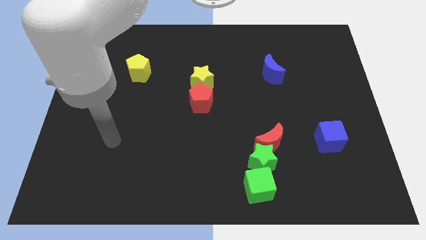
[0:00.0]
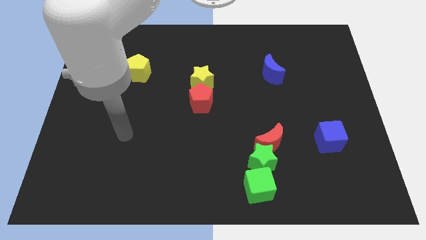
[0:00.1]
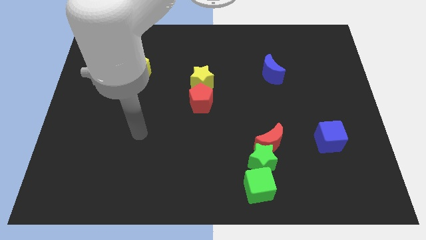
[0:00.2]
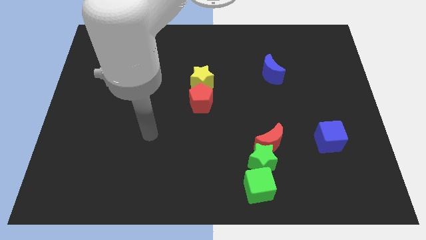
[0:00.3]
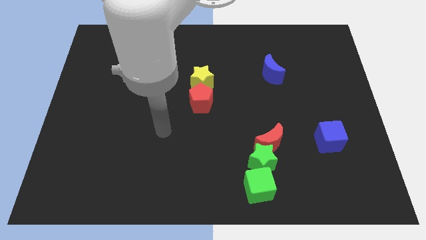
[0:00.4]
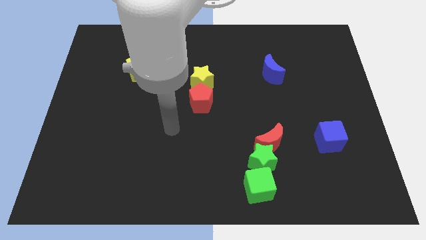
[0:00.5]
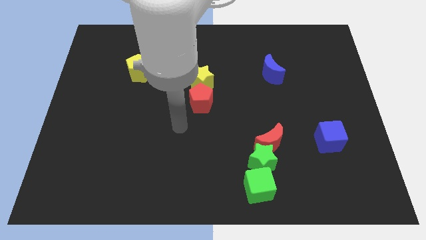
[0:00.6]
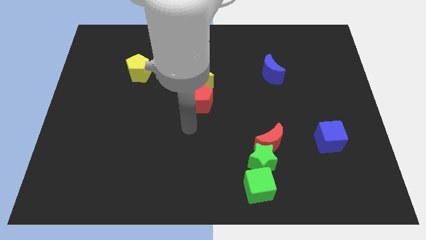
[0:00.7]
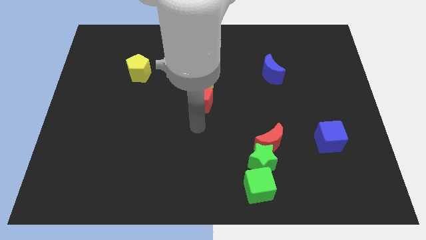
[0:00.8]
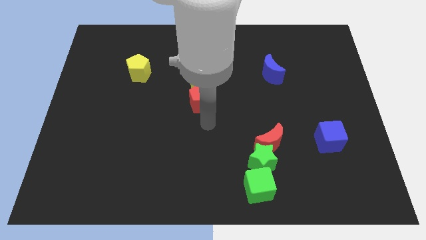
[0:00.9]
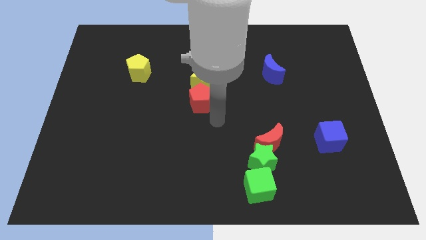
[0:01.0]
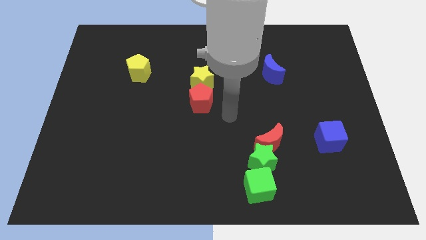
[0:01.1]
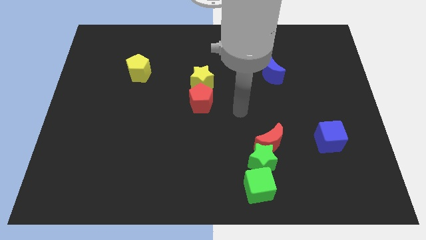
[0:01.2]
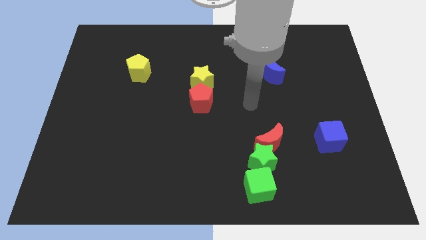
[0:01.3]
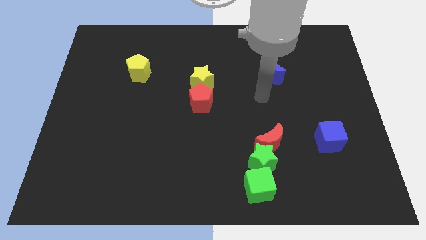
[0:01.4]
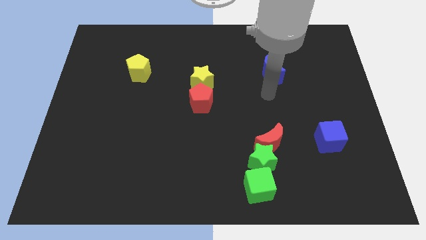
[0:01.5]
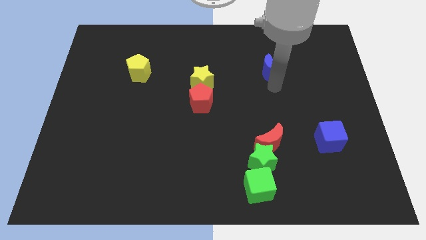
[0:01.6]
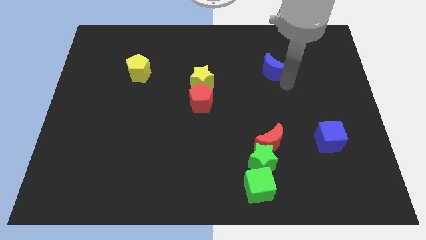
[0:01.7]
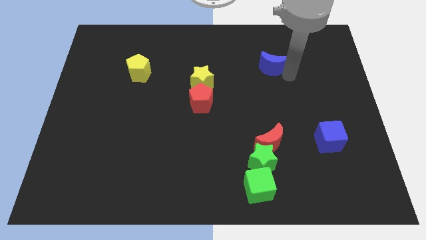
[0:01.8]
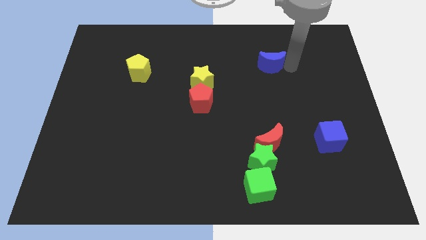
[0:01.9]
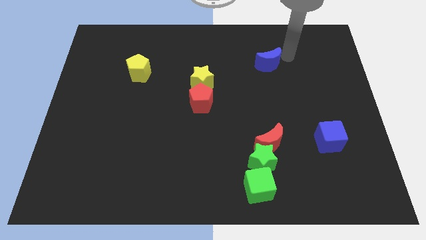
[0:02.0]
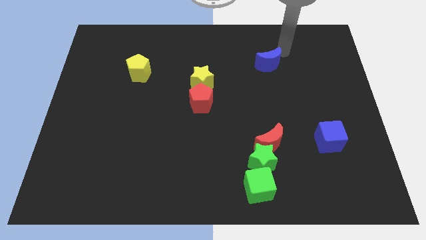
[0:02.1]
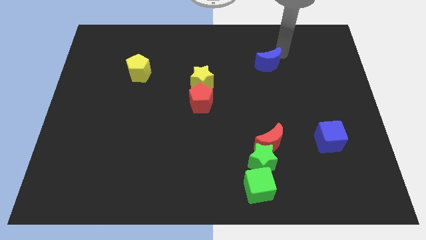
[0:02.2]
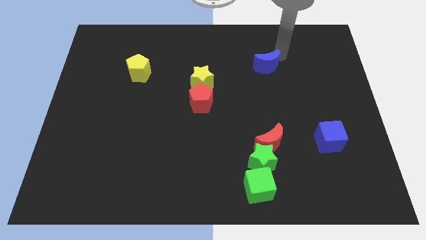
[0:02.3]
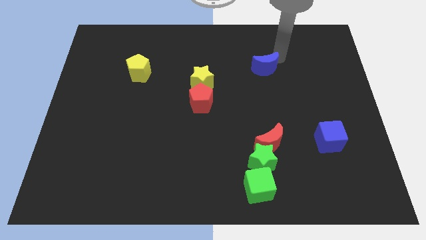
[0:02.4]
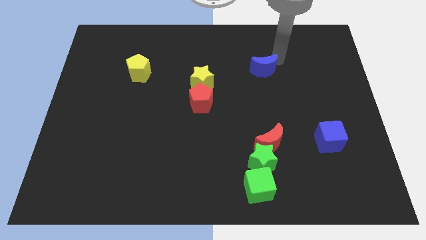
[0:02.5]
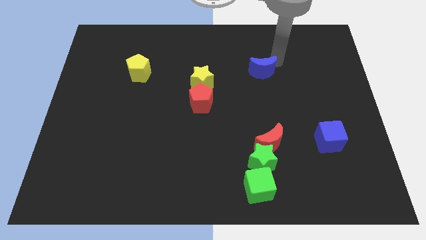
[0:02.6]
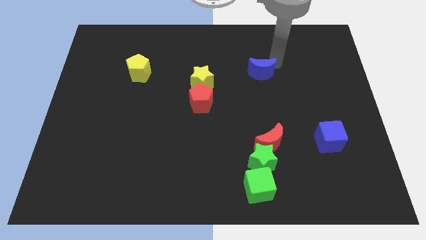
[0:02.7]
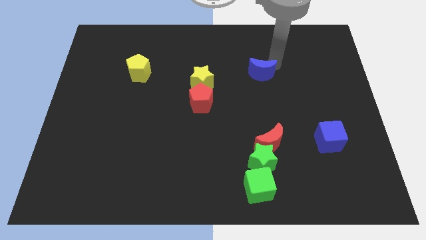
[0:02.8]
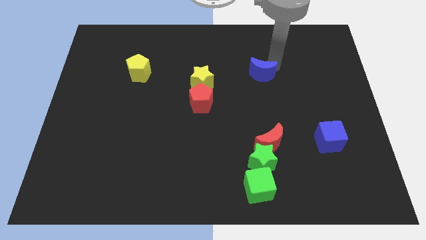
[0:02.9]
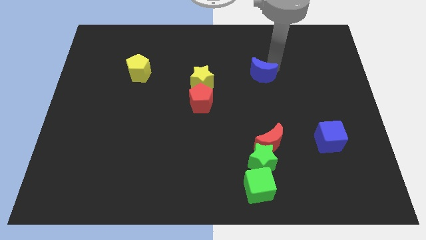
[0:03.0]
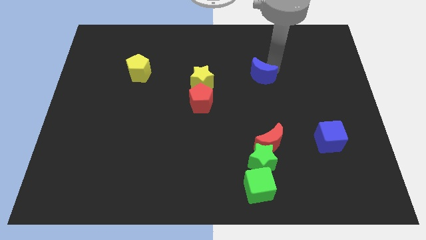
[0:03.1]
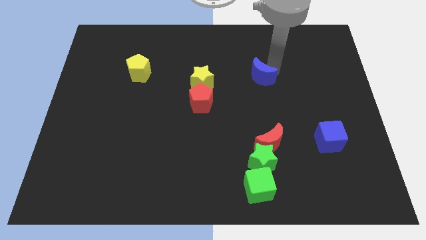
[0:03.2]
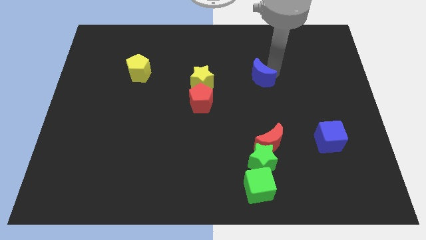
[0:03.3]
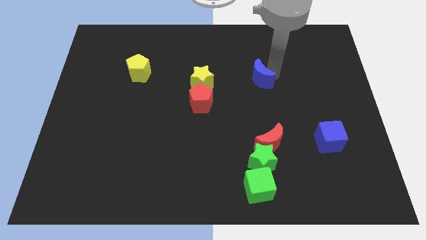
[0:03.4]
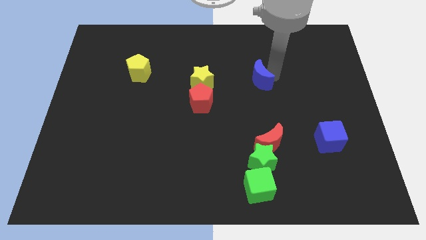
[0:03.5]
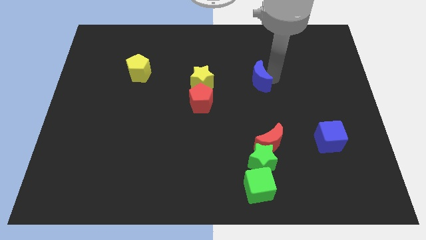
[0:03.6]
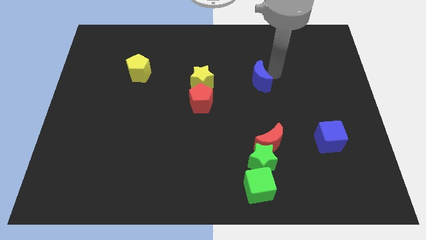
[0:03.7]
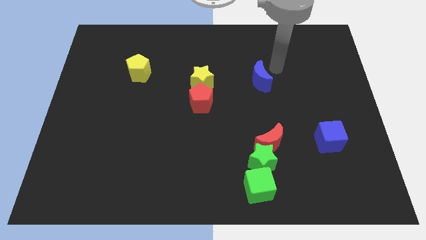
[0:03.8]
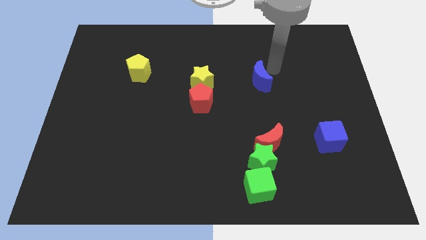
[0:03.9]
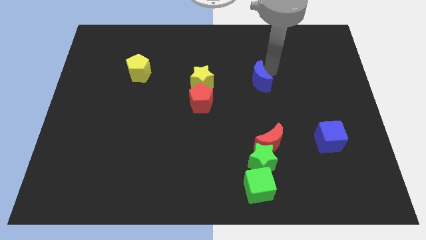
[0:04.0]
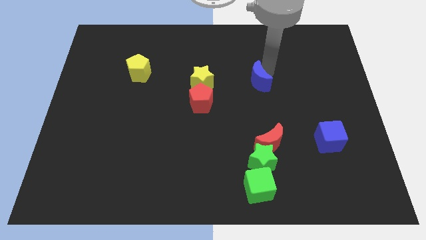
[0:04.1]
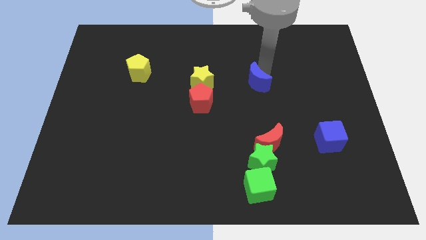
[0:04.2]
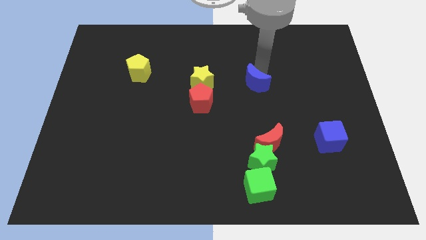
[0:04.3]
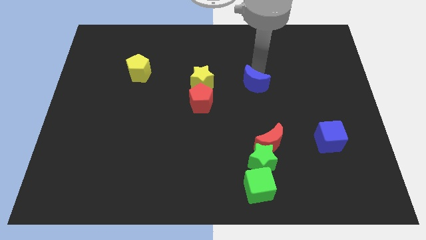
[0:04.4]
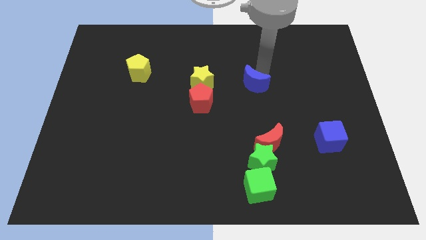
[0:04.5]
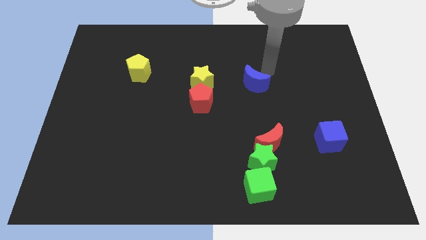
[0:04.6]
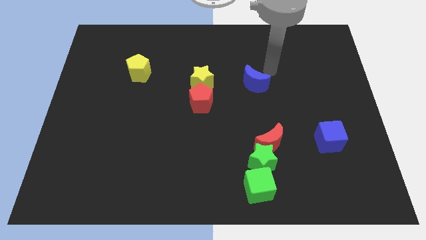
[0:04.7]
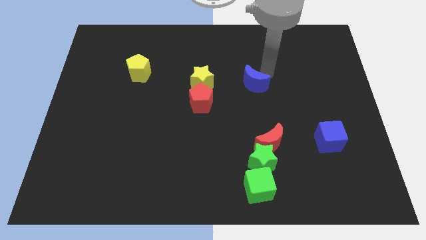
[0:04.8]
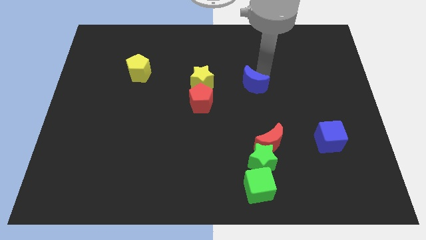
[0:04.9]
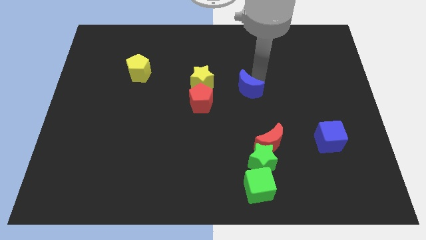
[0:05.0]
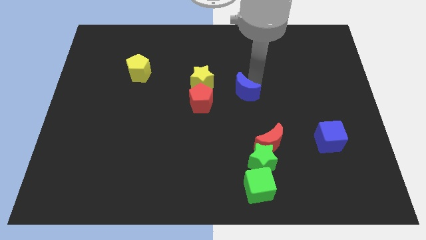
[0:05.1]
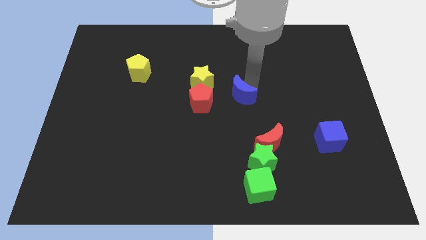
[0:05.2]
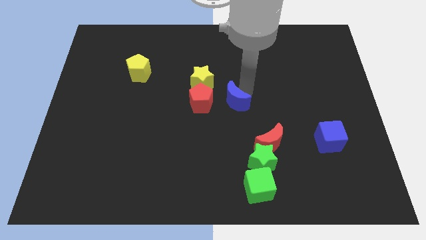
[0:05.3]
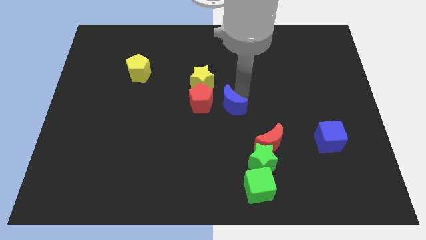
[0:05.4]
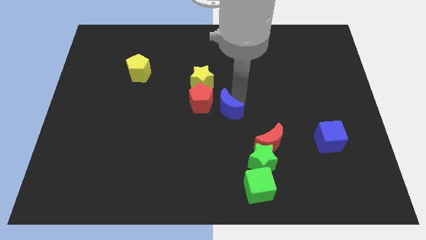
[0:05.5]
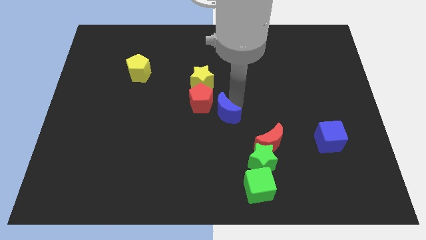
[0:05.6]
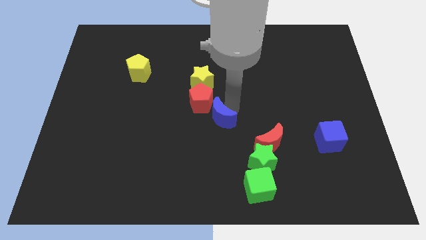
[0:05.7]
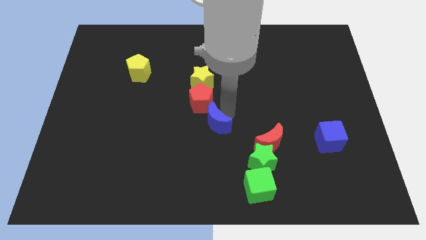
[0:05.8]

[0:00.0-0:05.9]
move the blue moon diagonally down and to the left

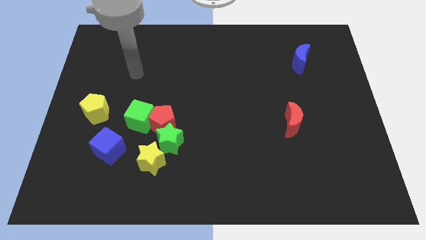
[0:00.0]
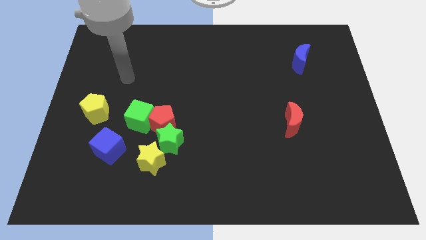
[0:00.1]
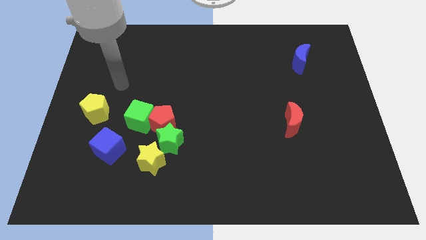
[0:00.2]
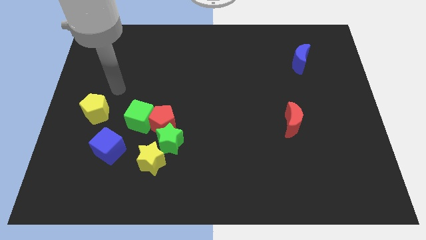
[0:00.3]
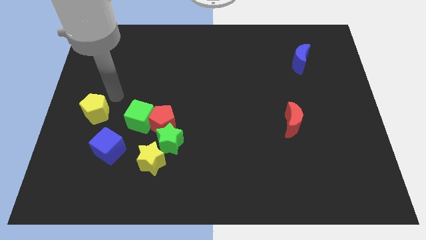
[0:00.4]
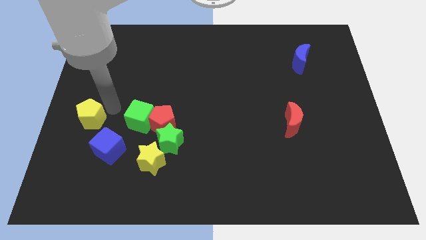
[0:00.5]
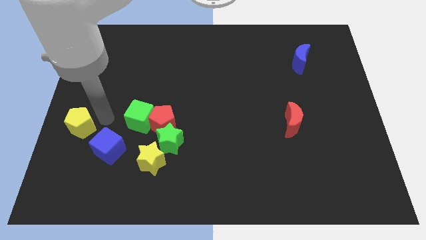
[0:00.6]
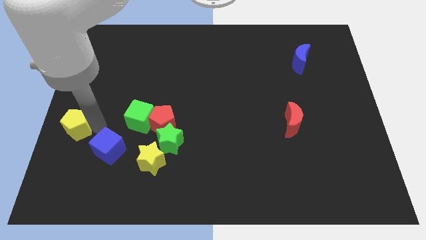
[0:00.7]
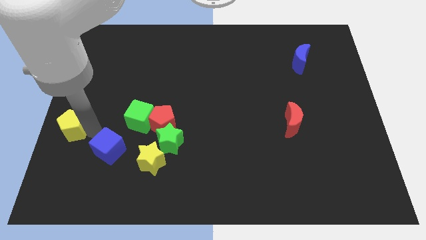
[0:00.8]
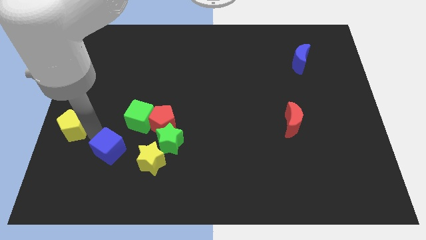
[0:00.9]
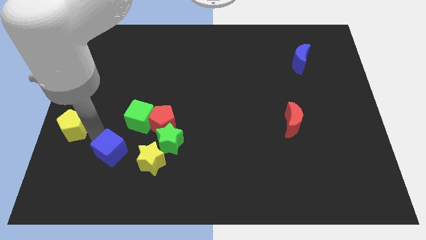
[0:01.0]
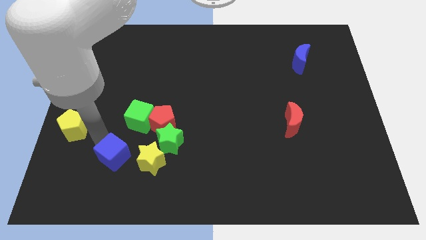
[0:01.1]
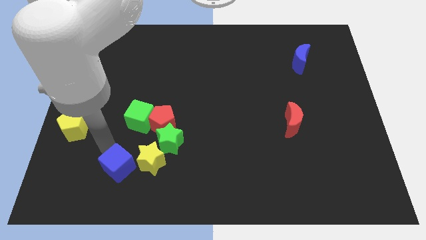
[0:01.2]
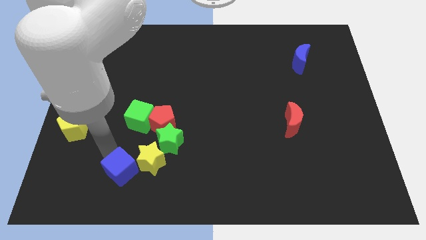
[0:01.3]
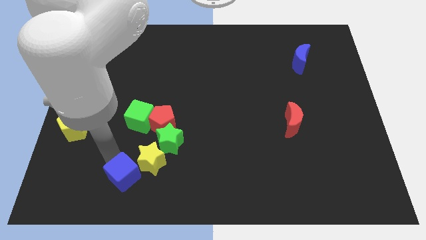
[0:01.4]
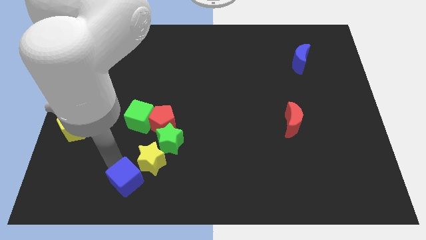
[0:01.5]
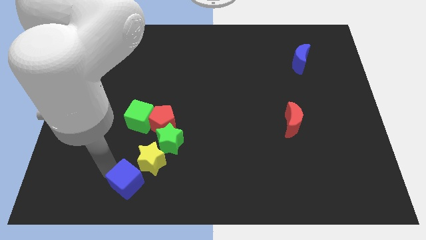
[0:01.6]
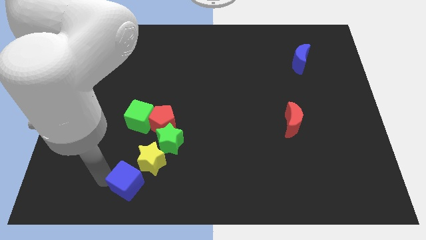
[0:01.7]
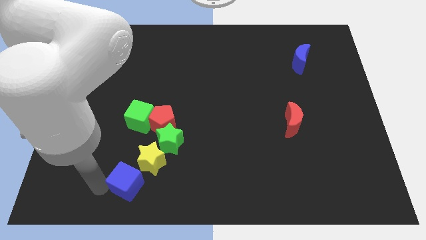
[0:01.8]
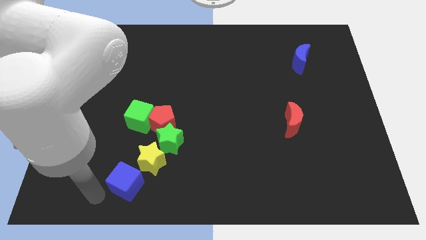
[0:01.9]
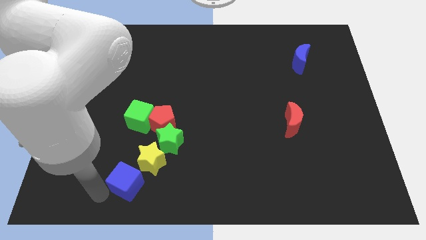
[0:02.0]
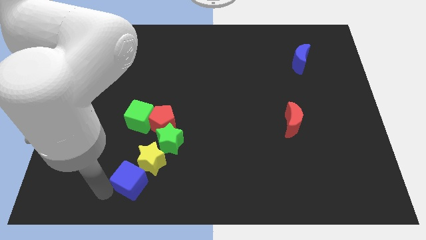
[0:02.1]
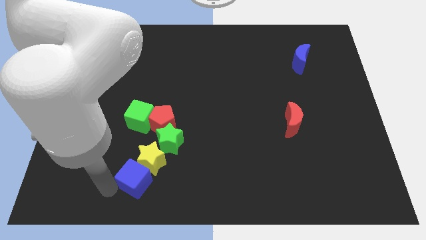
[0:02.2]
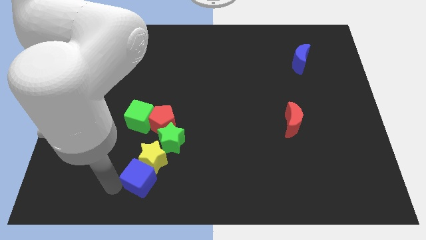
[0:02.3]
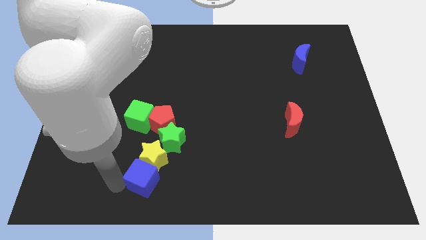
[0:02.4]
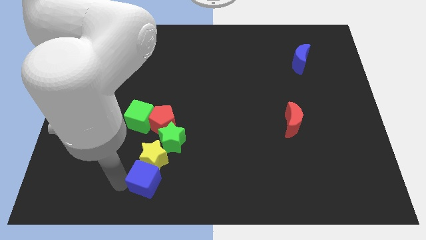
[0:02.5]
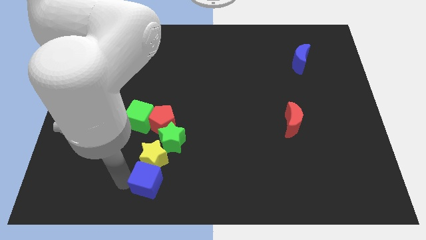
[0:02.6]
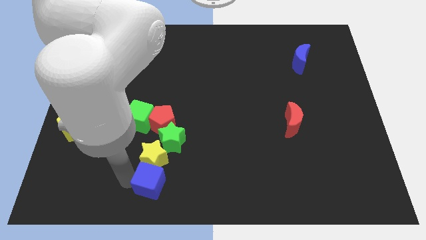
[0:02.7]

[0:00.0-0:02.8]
slightly move the blue cube to the right
